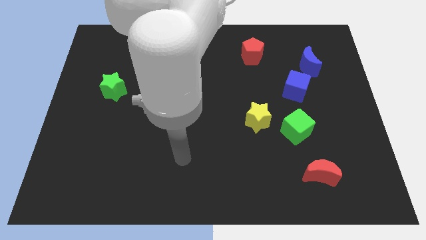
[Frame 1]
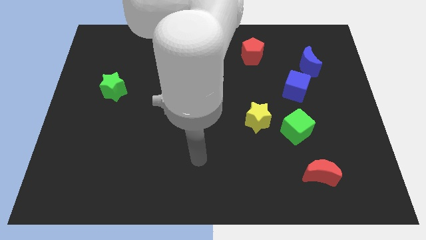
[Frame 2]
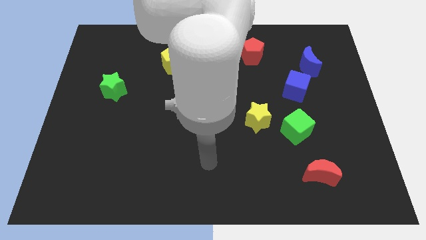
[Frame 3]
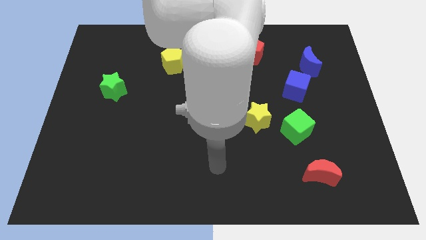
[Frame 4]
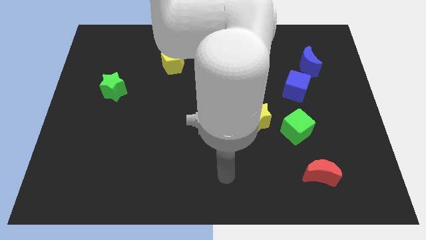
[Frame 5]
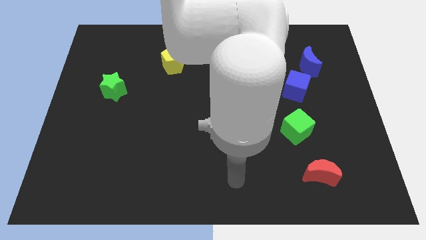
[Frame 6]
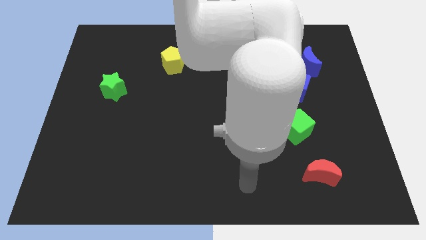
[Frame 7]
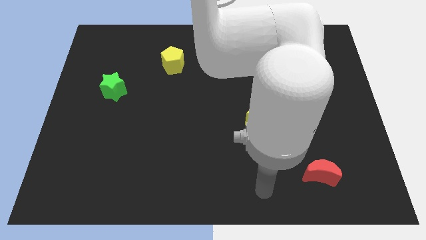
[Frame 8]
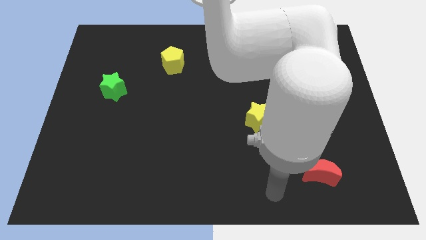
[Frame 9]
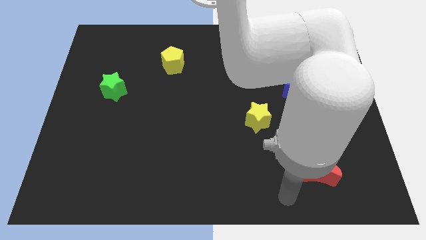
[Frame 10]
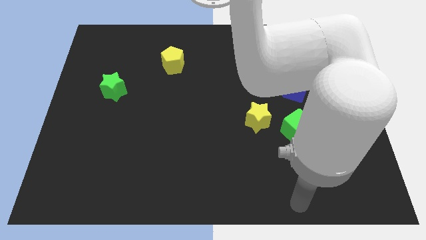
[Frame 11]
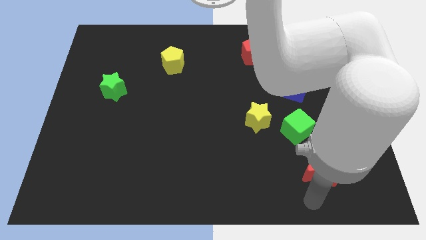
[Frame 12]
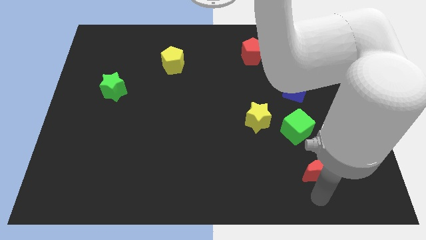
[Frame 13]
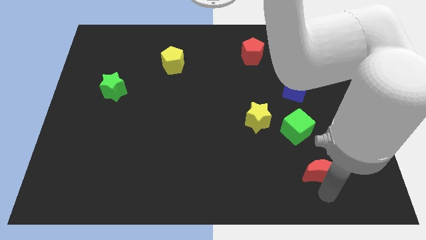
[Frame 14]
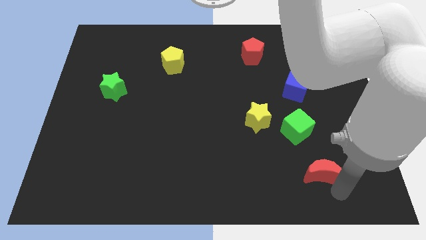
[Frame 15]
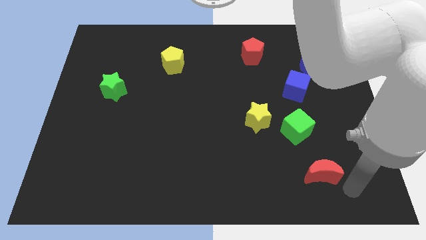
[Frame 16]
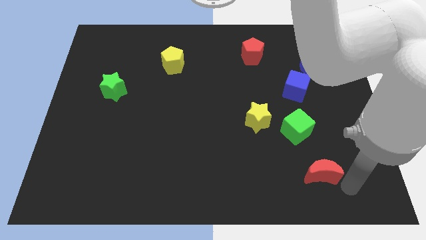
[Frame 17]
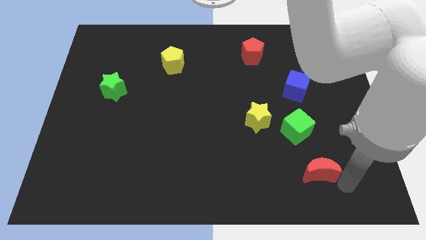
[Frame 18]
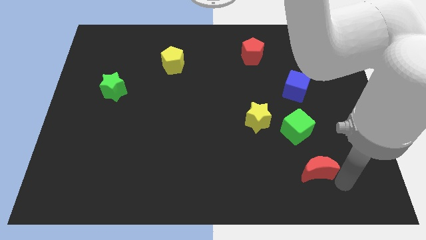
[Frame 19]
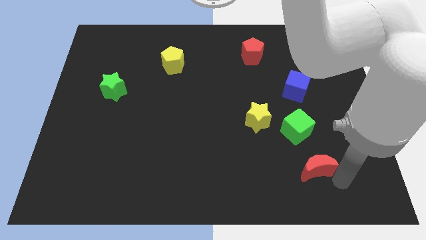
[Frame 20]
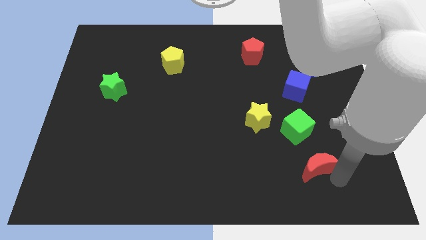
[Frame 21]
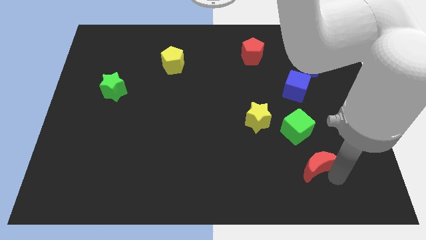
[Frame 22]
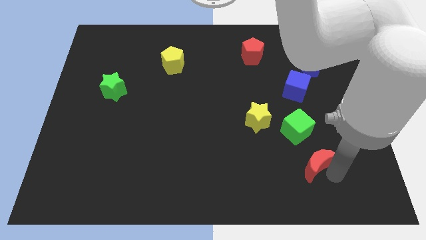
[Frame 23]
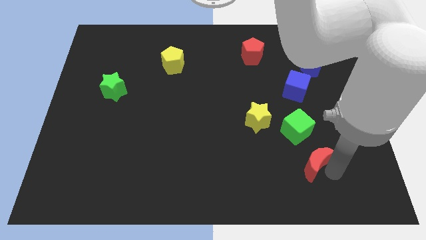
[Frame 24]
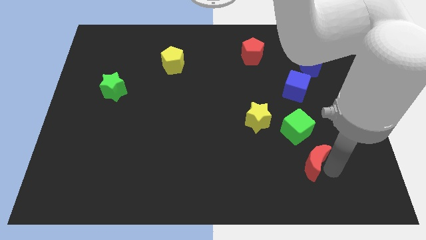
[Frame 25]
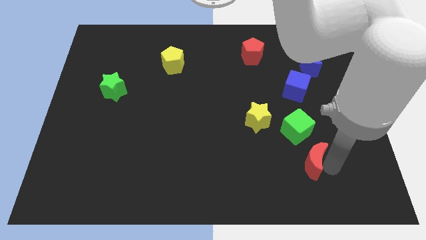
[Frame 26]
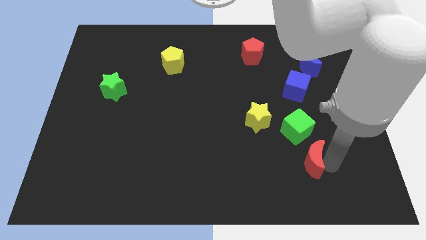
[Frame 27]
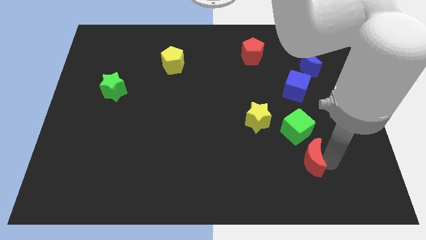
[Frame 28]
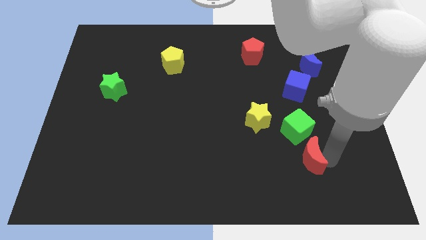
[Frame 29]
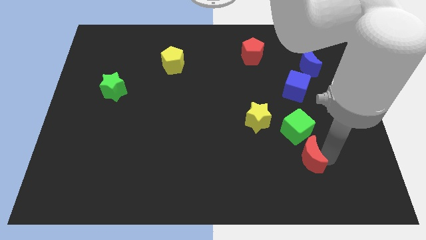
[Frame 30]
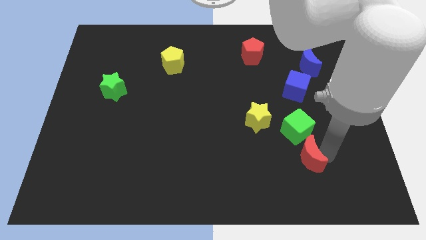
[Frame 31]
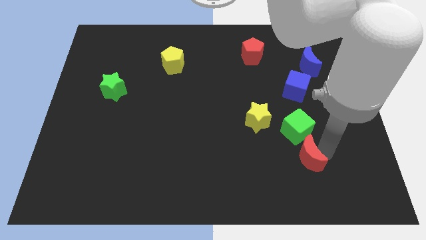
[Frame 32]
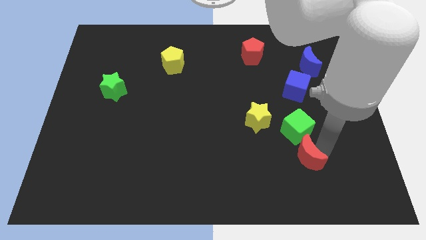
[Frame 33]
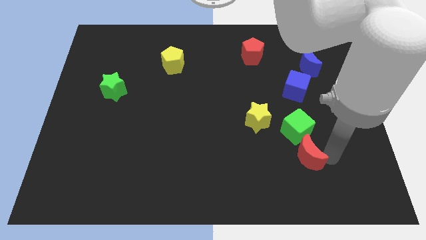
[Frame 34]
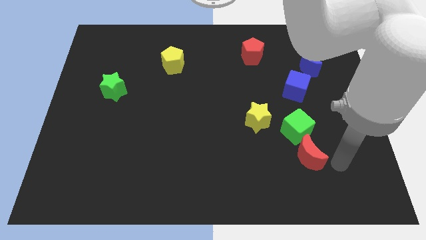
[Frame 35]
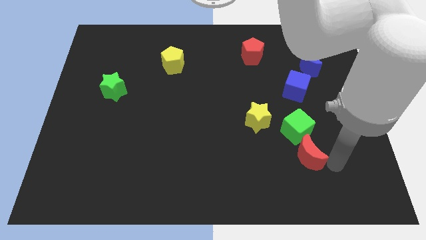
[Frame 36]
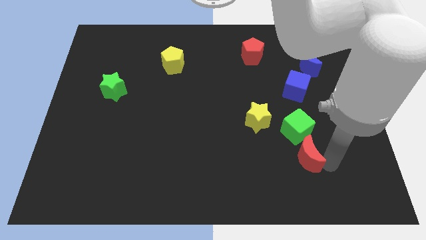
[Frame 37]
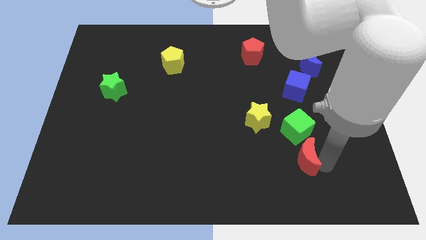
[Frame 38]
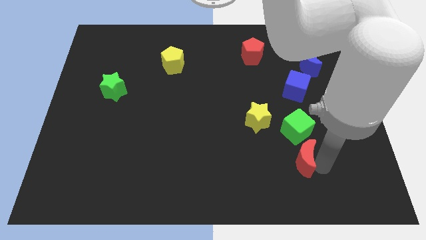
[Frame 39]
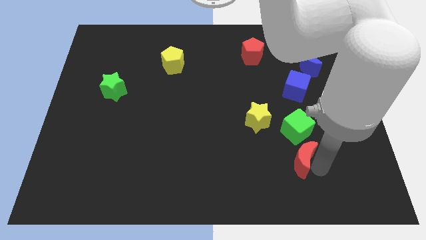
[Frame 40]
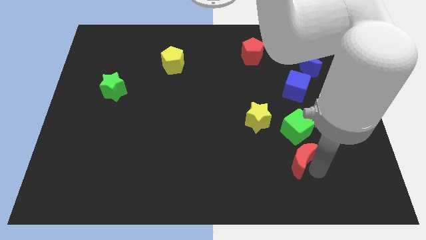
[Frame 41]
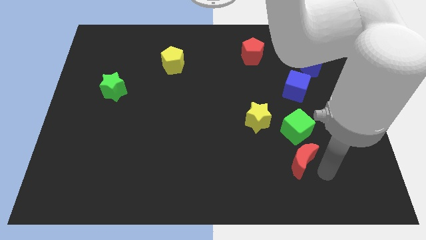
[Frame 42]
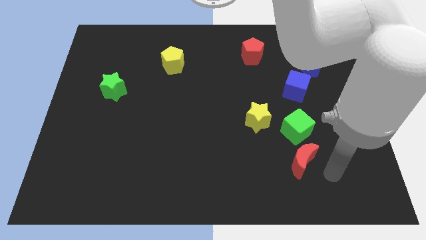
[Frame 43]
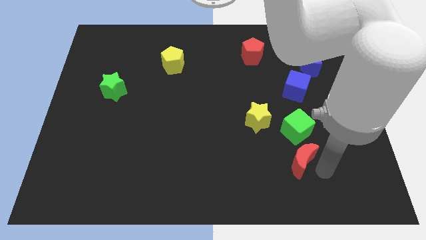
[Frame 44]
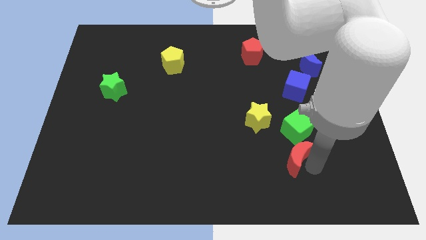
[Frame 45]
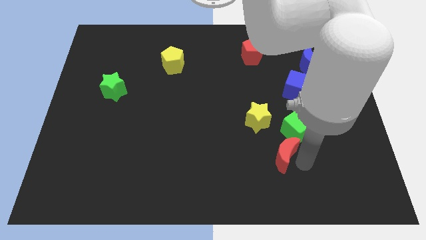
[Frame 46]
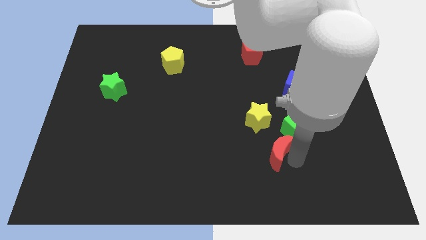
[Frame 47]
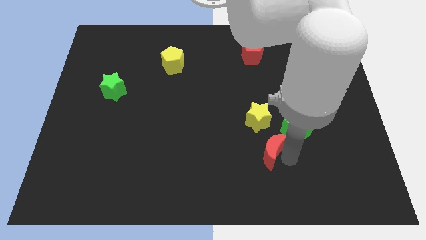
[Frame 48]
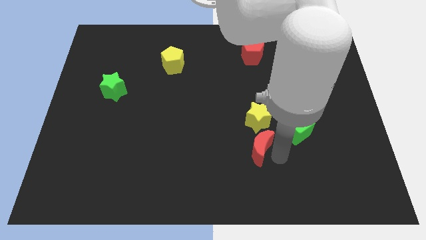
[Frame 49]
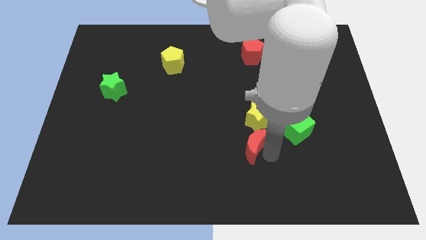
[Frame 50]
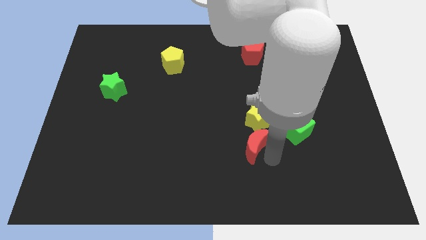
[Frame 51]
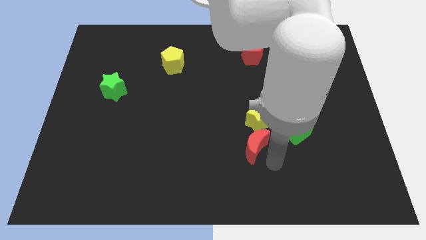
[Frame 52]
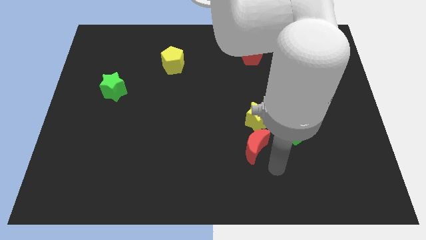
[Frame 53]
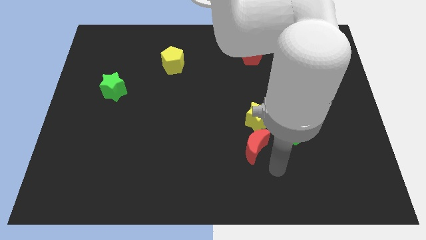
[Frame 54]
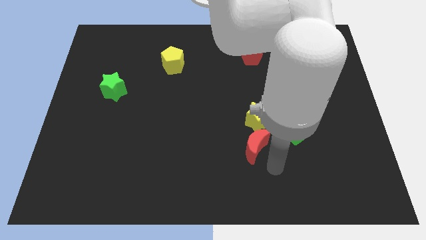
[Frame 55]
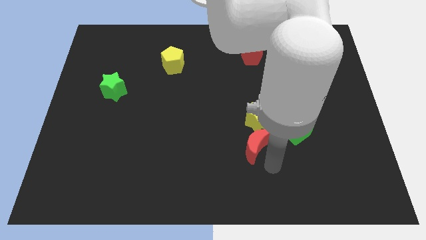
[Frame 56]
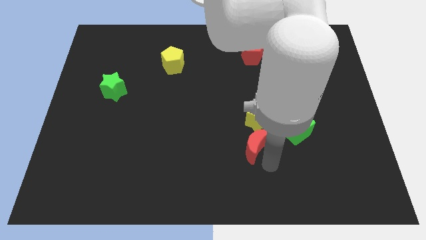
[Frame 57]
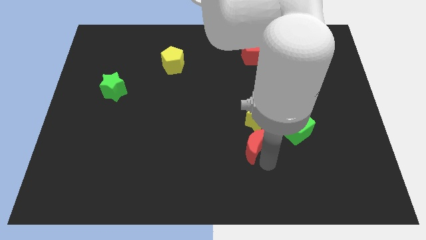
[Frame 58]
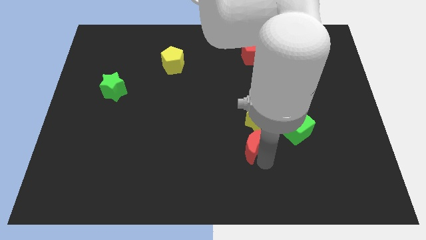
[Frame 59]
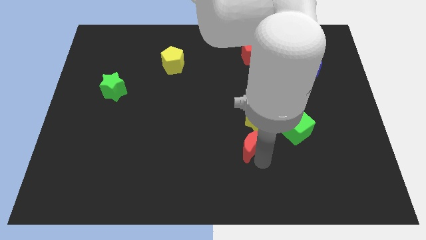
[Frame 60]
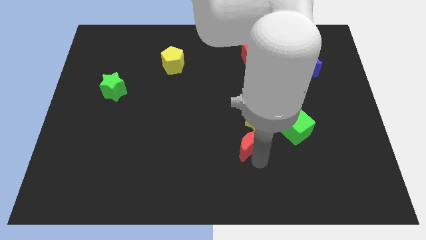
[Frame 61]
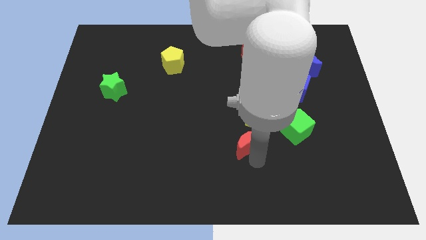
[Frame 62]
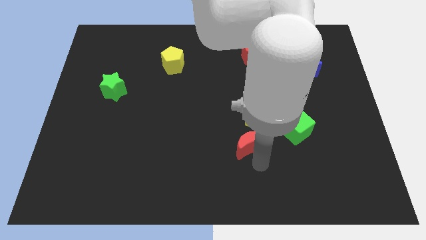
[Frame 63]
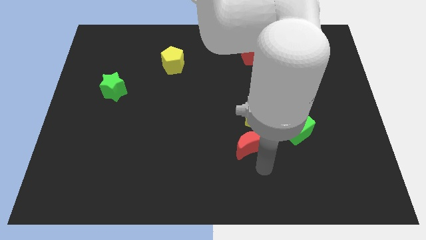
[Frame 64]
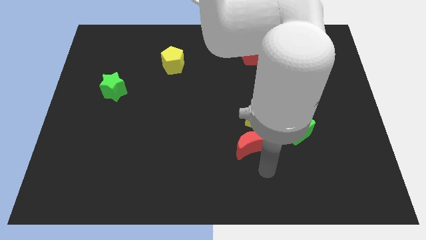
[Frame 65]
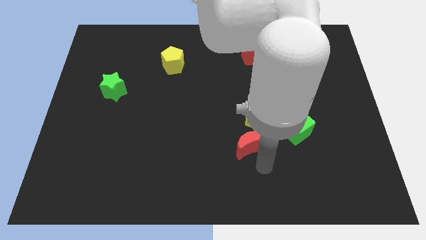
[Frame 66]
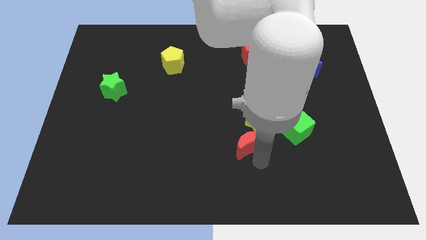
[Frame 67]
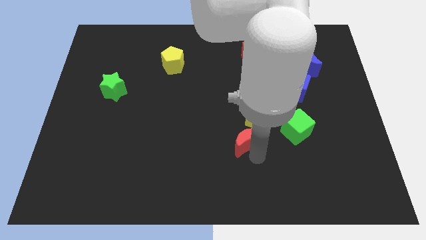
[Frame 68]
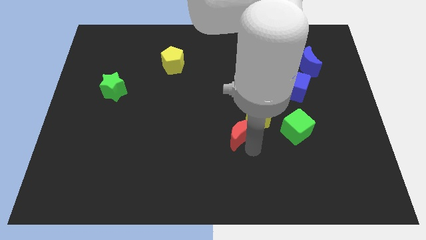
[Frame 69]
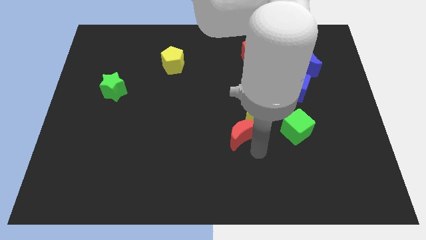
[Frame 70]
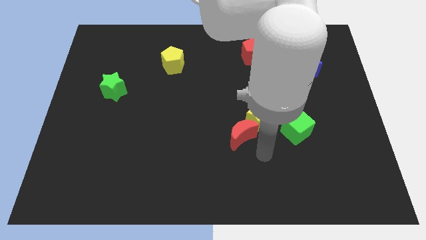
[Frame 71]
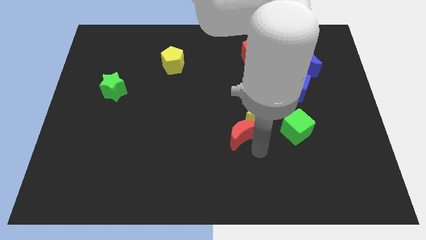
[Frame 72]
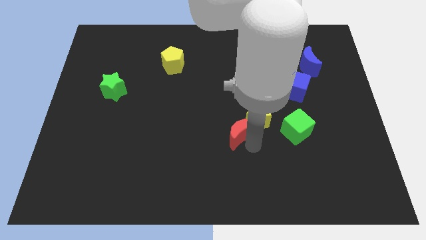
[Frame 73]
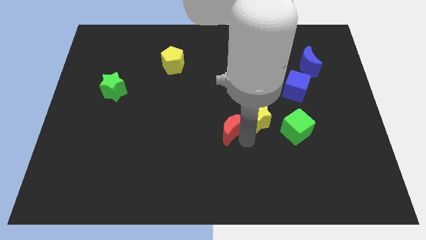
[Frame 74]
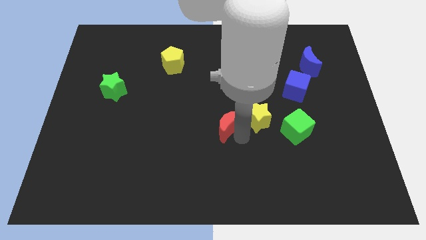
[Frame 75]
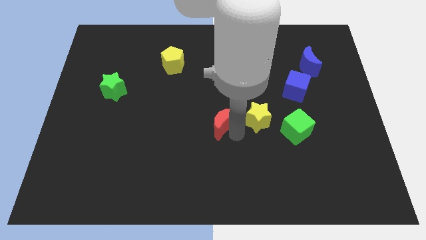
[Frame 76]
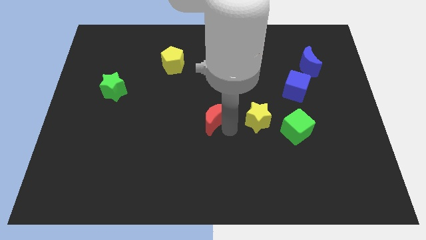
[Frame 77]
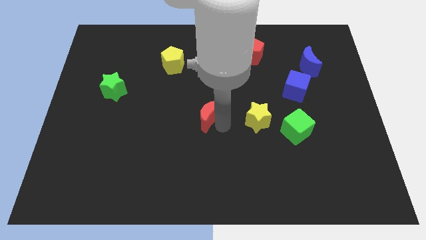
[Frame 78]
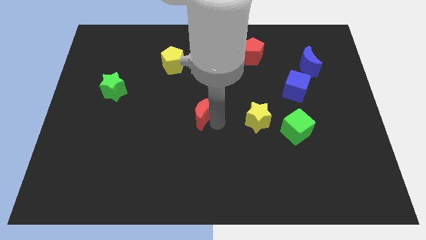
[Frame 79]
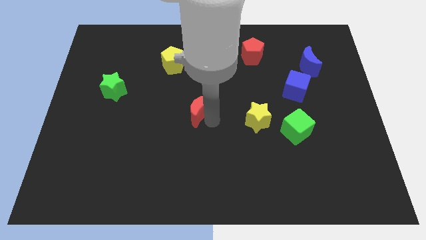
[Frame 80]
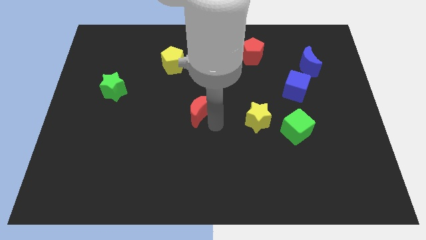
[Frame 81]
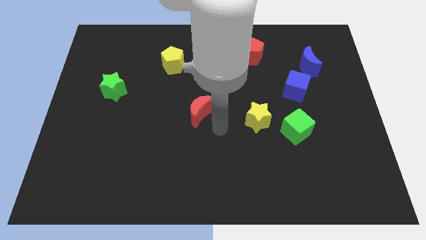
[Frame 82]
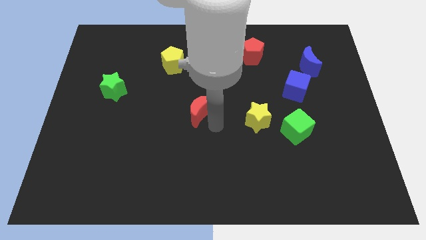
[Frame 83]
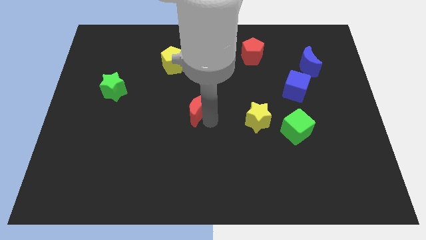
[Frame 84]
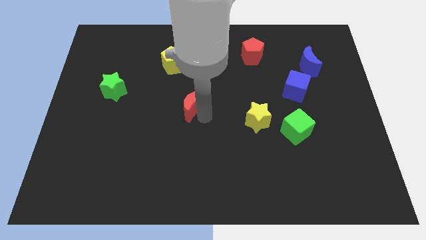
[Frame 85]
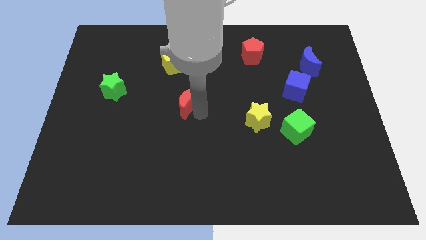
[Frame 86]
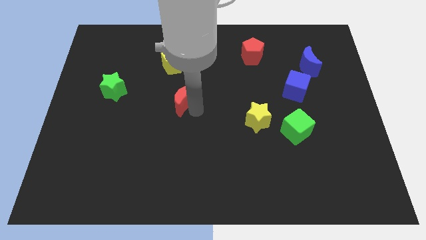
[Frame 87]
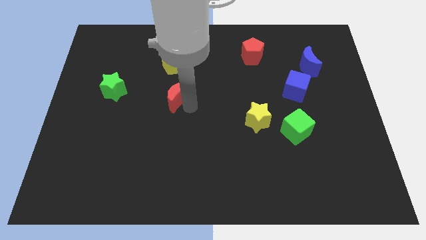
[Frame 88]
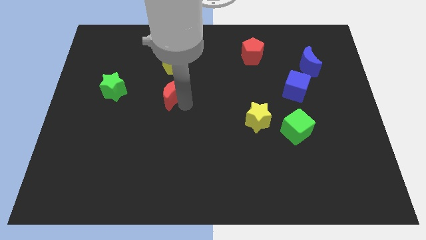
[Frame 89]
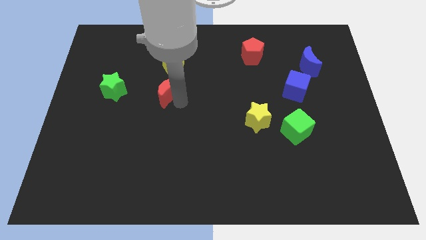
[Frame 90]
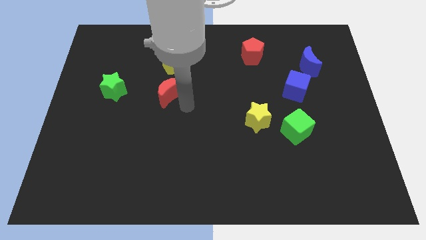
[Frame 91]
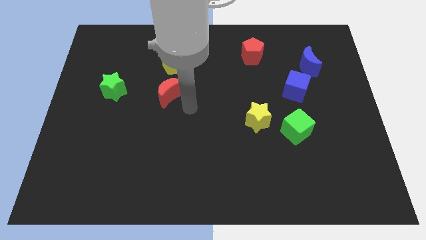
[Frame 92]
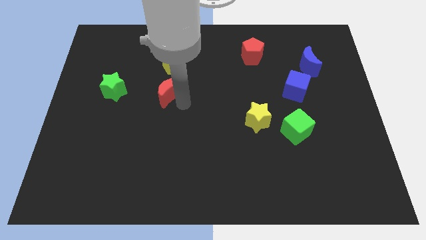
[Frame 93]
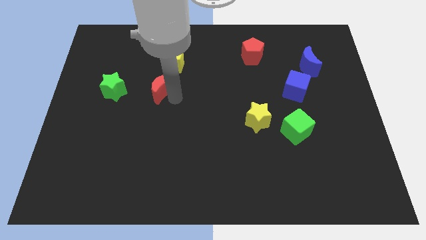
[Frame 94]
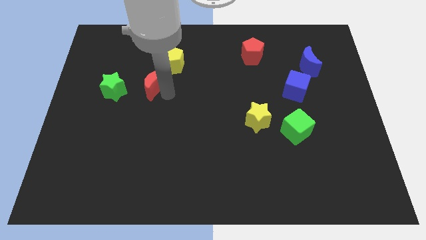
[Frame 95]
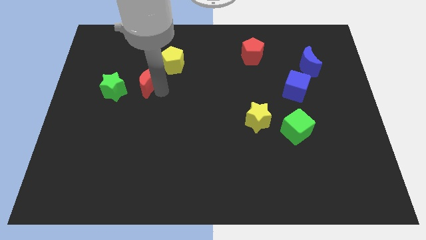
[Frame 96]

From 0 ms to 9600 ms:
push the red moon diagonally up and to the right of the green star
